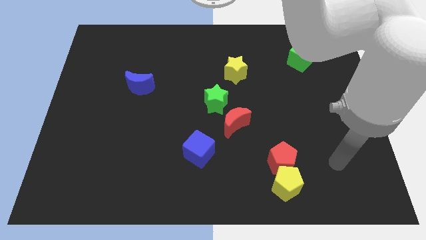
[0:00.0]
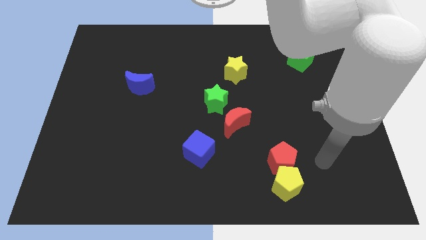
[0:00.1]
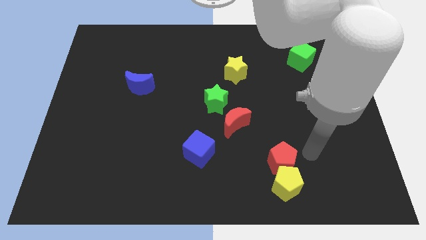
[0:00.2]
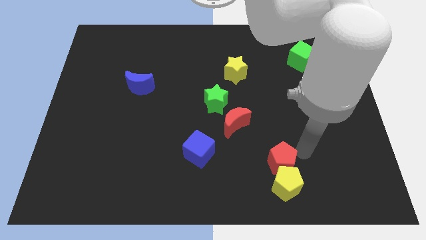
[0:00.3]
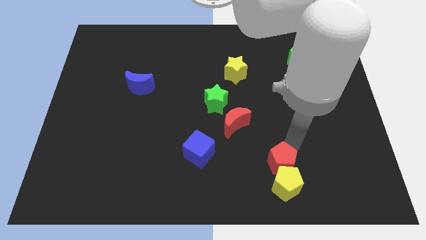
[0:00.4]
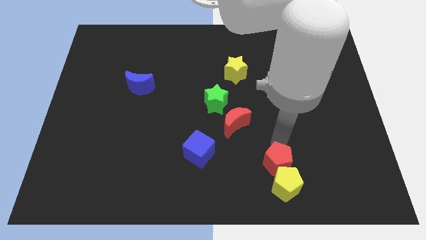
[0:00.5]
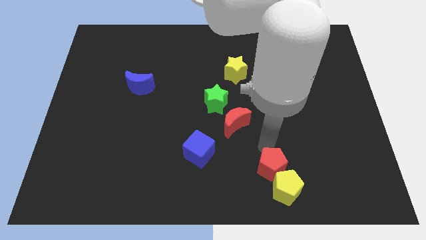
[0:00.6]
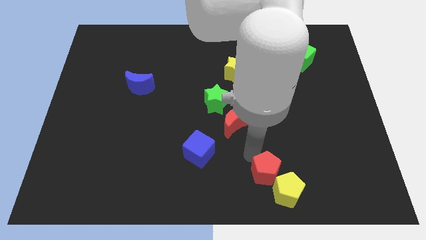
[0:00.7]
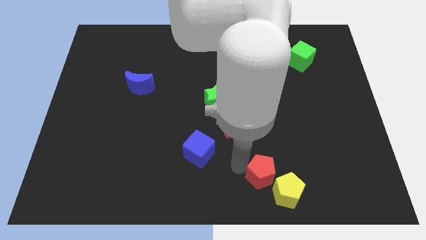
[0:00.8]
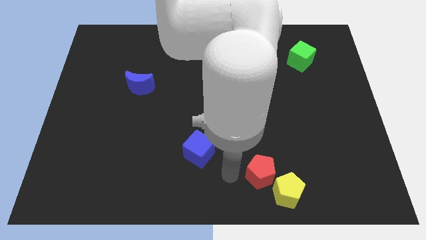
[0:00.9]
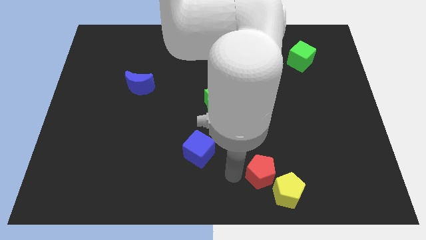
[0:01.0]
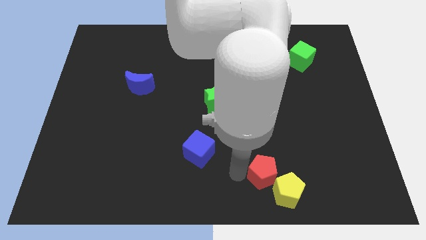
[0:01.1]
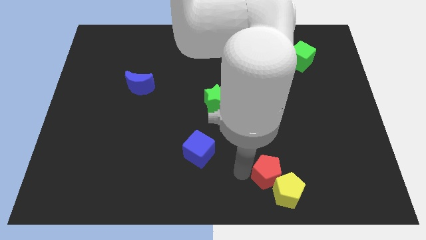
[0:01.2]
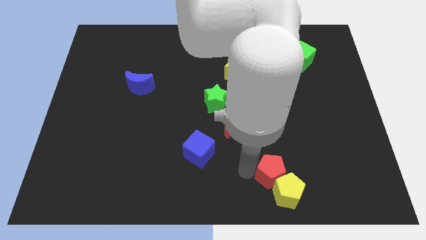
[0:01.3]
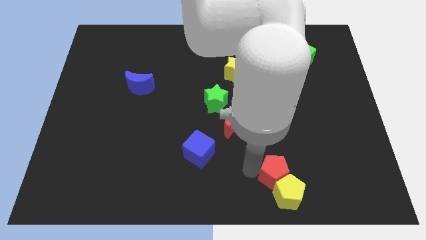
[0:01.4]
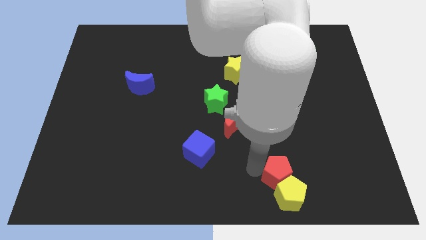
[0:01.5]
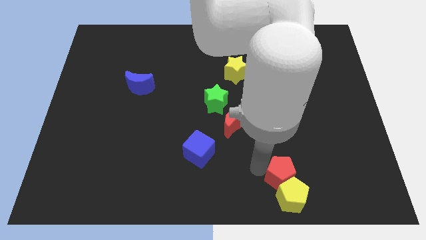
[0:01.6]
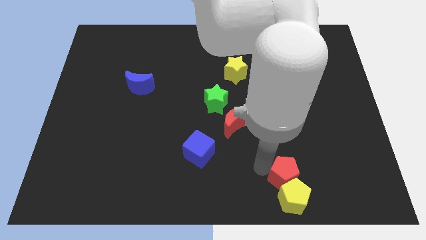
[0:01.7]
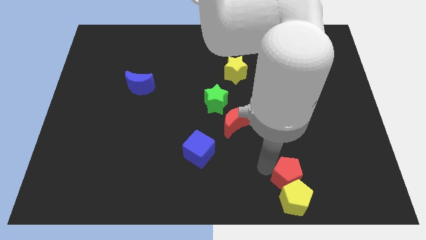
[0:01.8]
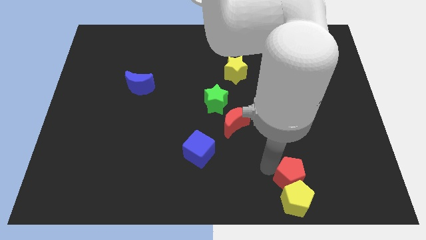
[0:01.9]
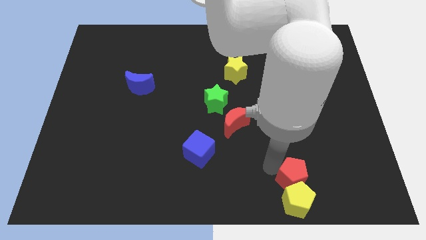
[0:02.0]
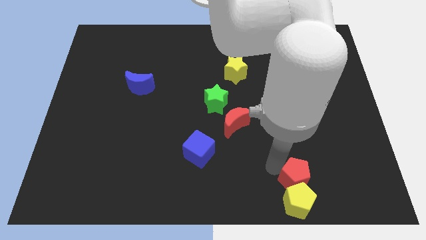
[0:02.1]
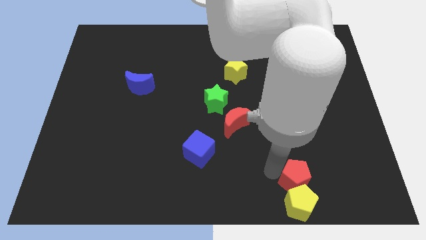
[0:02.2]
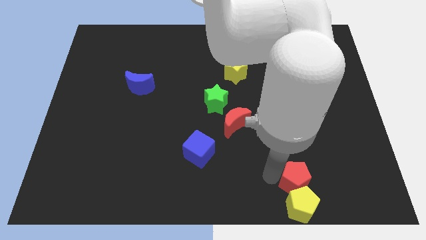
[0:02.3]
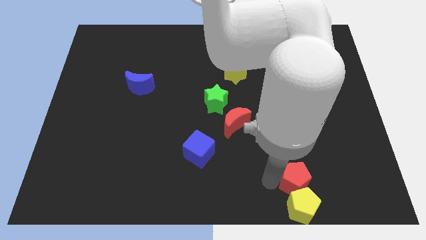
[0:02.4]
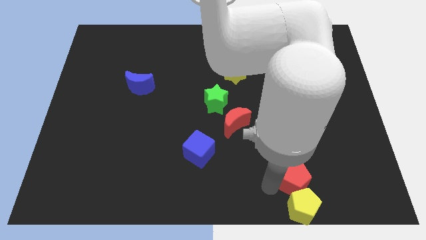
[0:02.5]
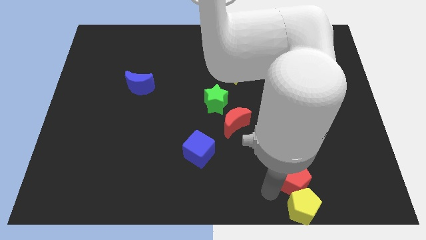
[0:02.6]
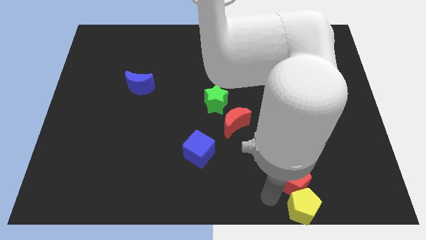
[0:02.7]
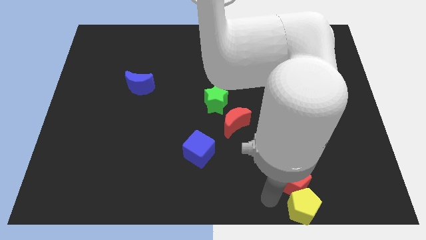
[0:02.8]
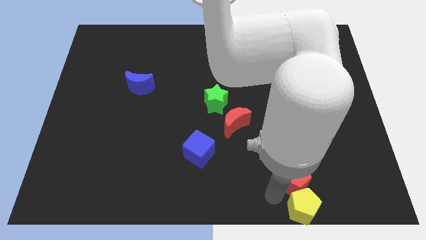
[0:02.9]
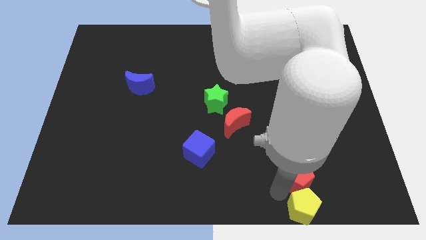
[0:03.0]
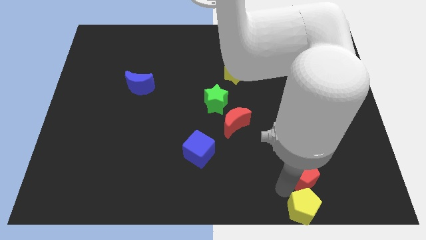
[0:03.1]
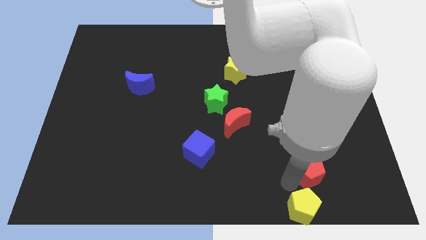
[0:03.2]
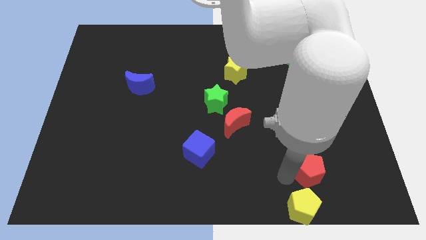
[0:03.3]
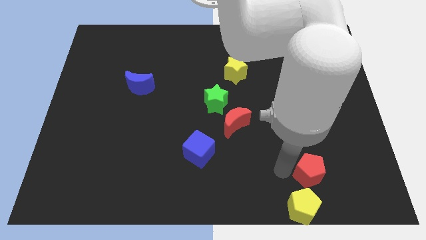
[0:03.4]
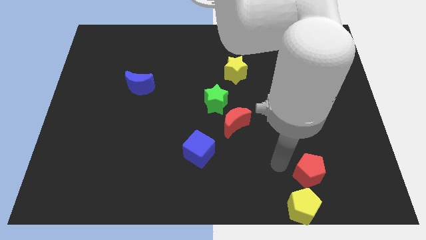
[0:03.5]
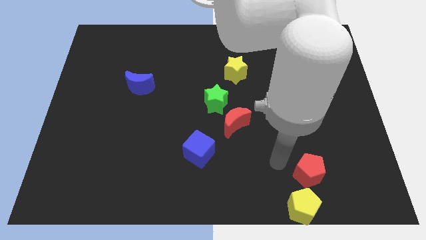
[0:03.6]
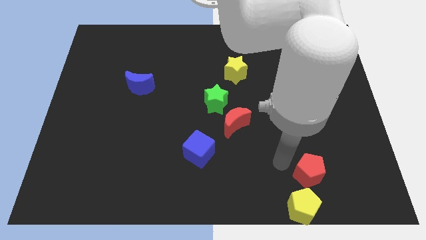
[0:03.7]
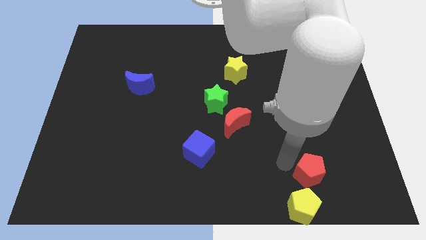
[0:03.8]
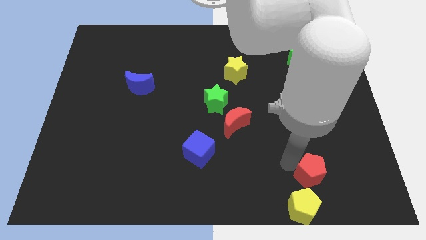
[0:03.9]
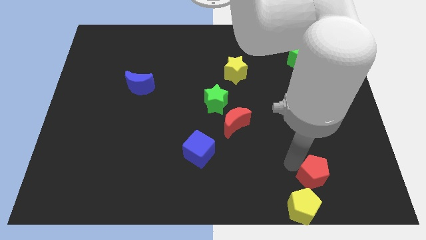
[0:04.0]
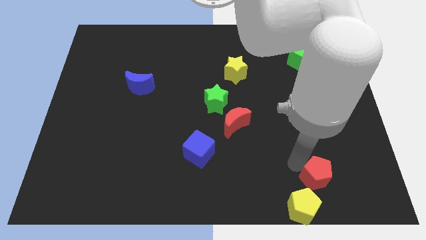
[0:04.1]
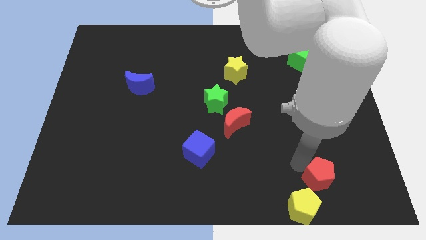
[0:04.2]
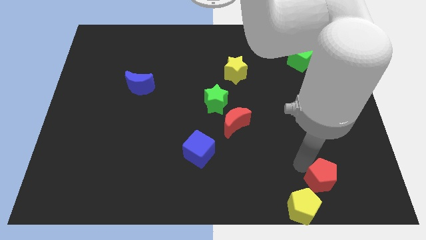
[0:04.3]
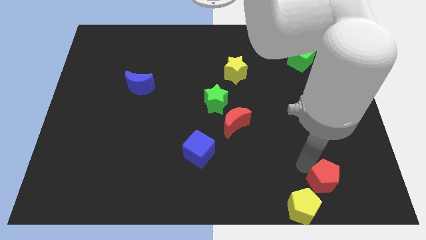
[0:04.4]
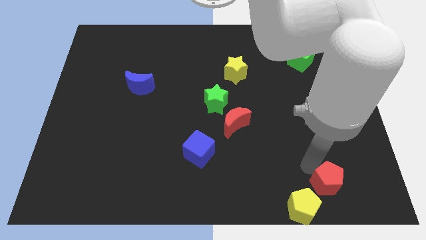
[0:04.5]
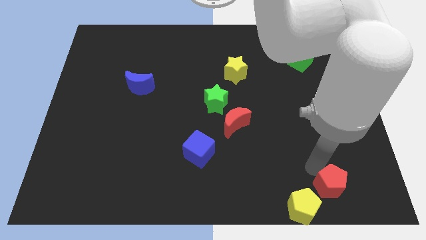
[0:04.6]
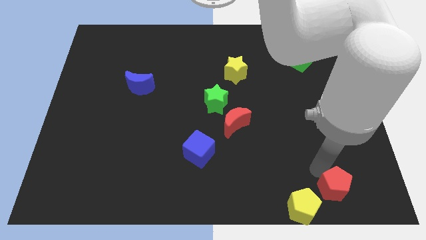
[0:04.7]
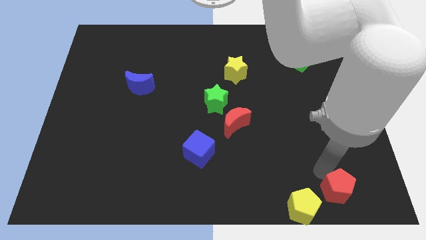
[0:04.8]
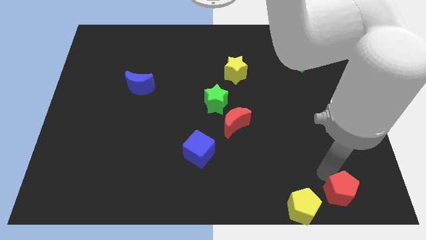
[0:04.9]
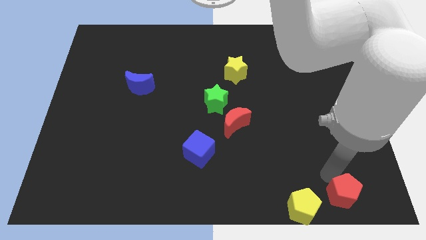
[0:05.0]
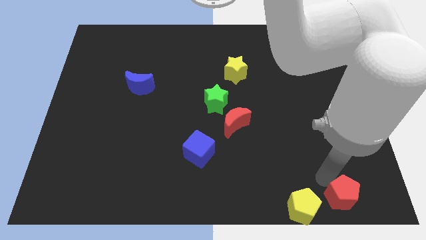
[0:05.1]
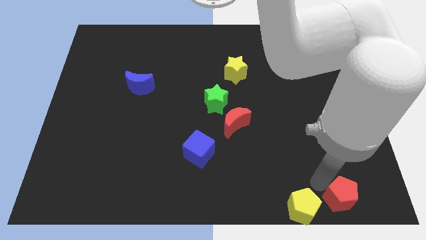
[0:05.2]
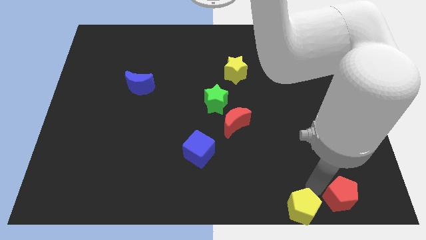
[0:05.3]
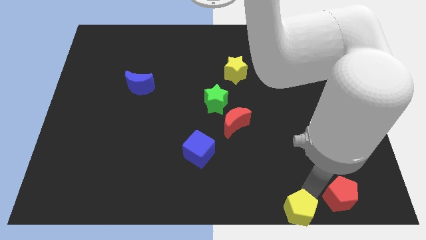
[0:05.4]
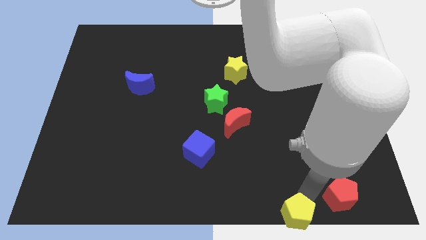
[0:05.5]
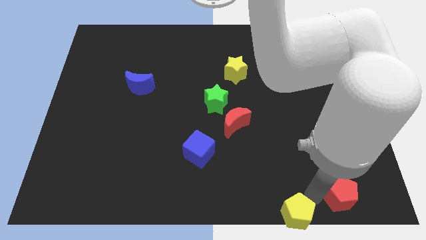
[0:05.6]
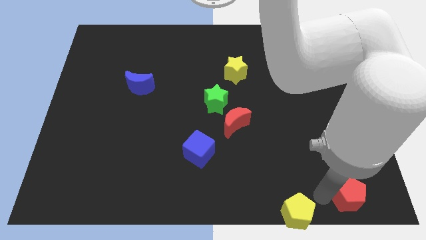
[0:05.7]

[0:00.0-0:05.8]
push the red pentagon to the bottom right

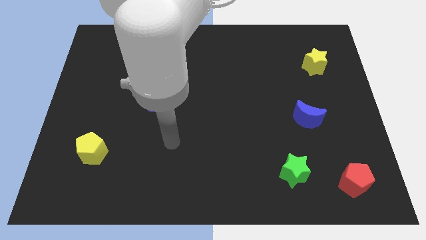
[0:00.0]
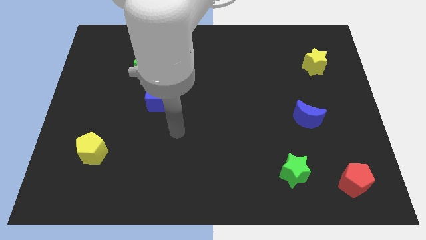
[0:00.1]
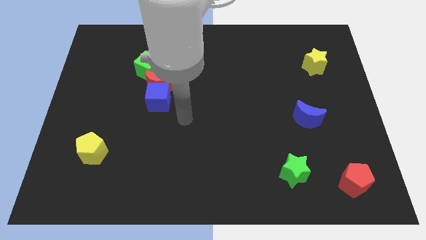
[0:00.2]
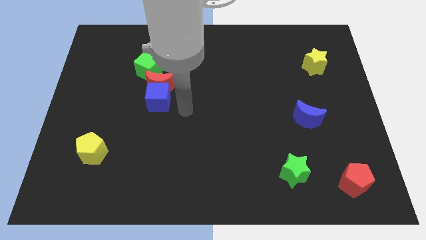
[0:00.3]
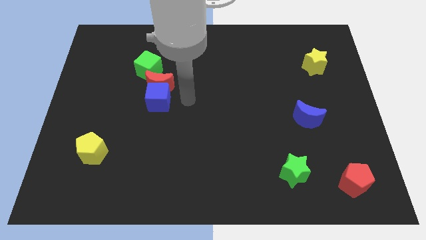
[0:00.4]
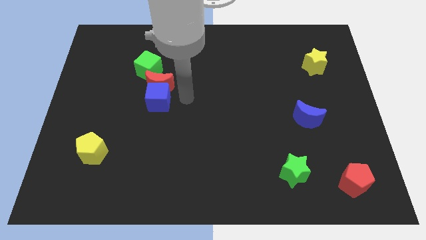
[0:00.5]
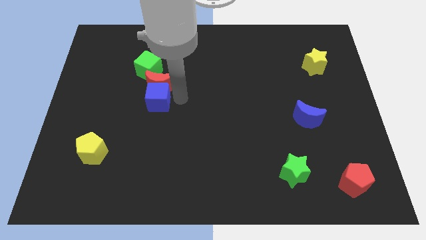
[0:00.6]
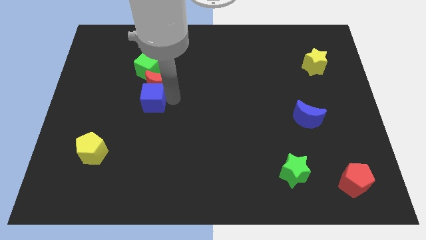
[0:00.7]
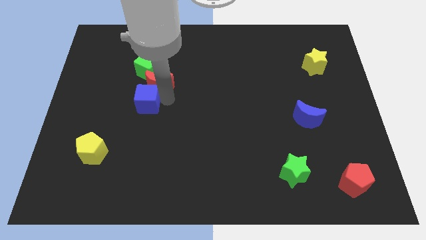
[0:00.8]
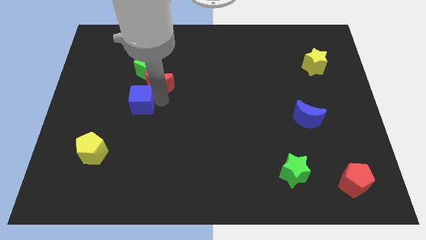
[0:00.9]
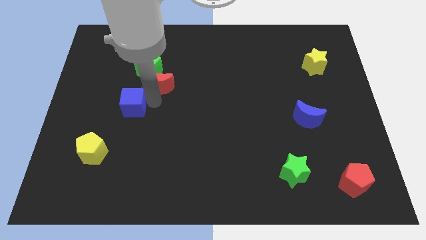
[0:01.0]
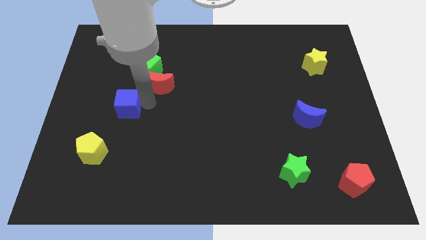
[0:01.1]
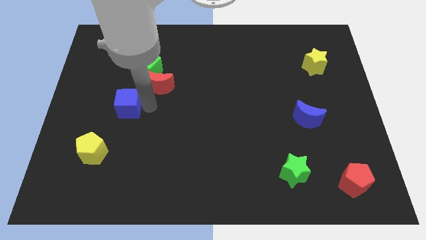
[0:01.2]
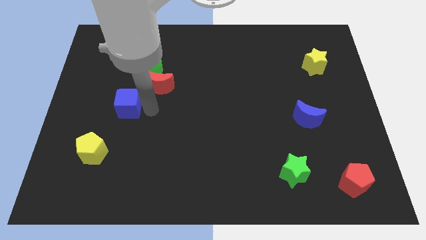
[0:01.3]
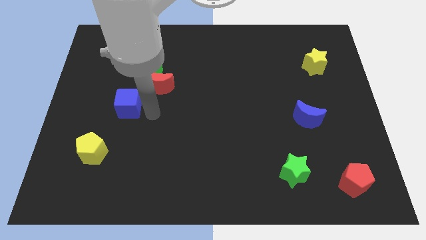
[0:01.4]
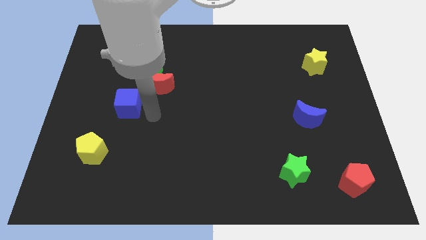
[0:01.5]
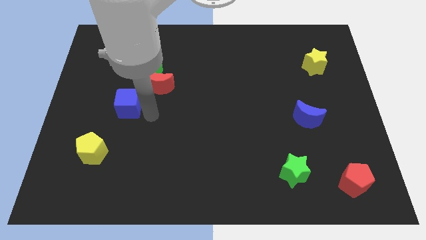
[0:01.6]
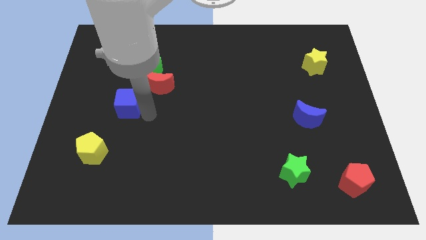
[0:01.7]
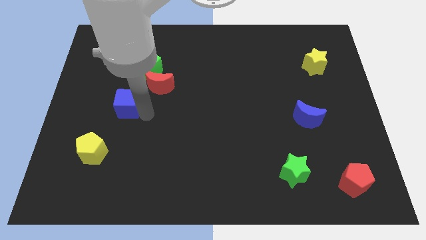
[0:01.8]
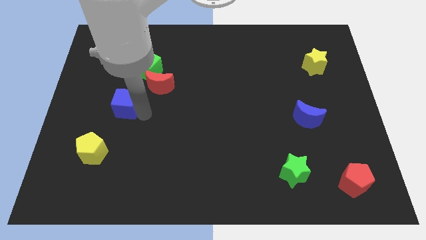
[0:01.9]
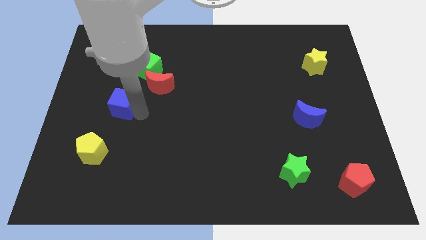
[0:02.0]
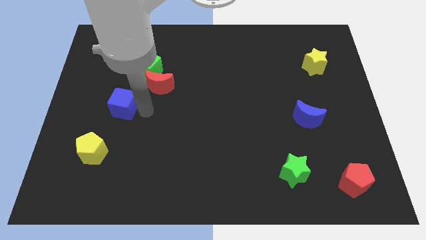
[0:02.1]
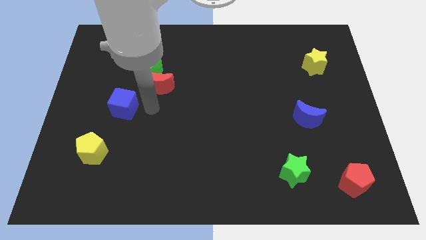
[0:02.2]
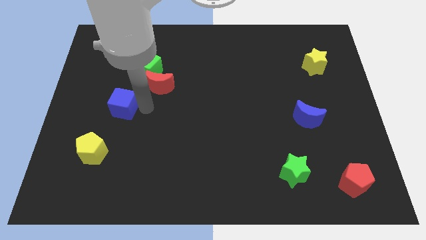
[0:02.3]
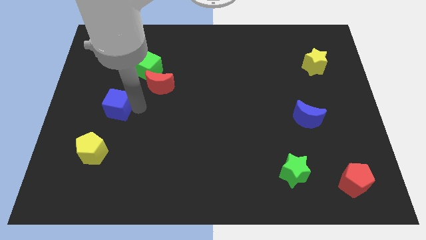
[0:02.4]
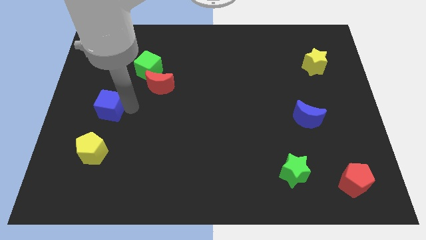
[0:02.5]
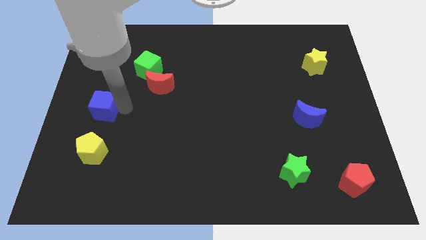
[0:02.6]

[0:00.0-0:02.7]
slide the blue cube to the left side of the board
